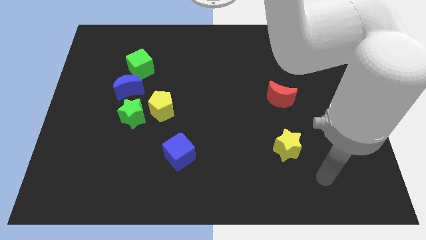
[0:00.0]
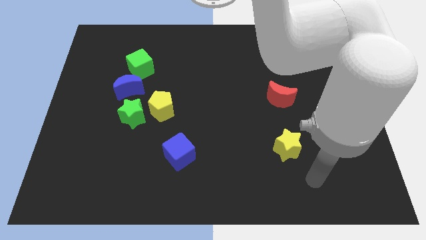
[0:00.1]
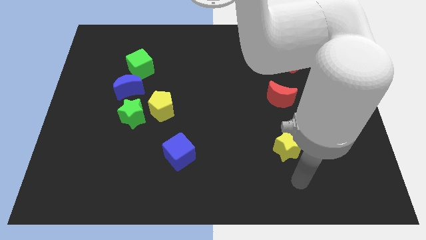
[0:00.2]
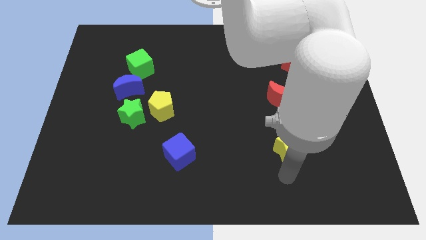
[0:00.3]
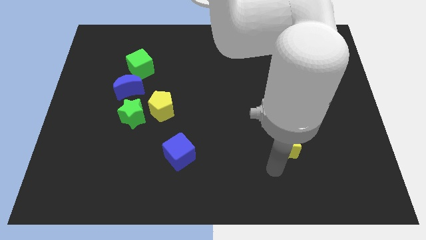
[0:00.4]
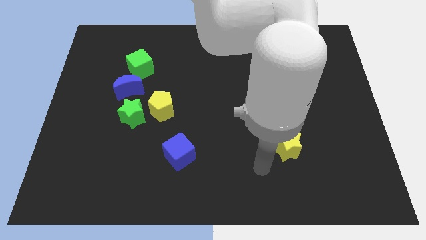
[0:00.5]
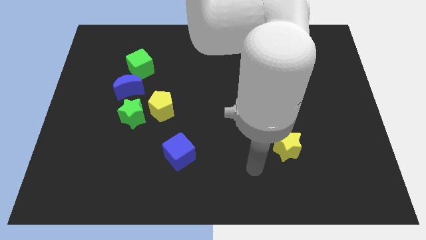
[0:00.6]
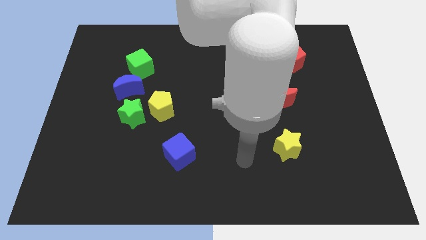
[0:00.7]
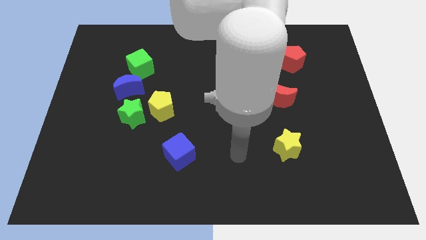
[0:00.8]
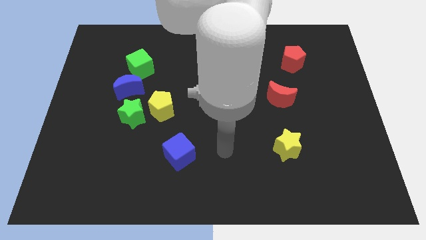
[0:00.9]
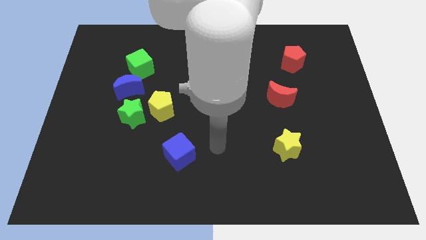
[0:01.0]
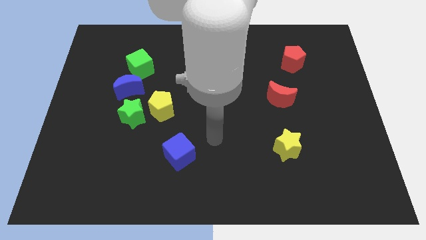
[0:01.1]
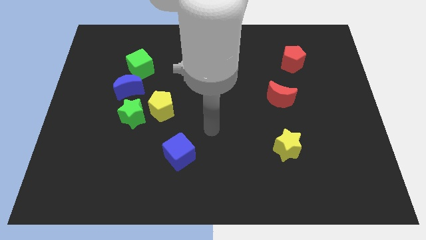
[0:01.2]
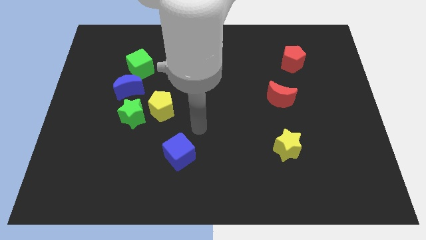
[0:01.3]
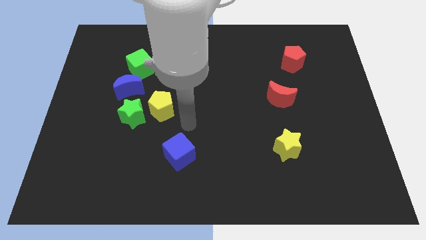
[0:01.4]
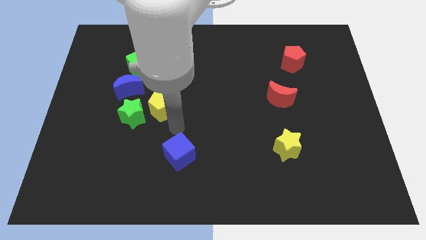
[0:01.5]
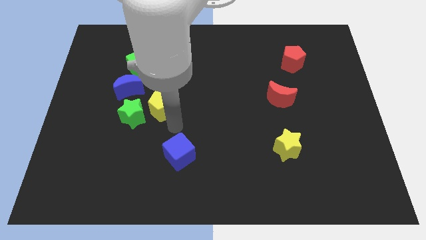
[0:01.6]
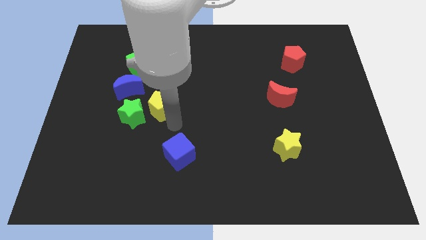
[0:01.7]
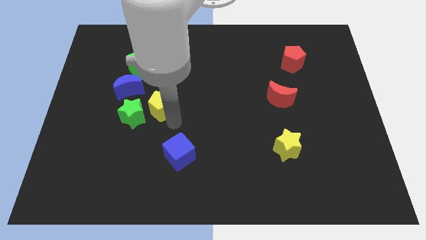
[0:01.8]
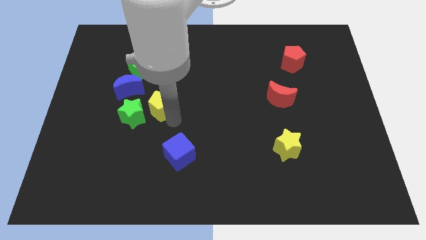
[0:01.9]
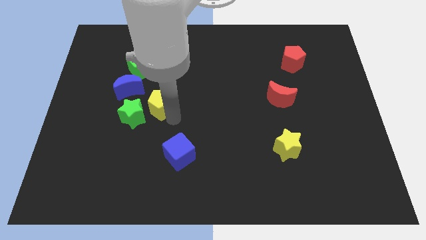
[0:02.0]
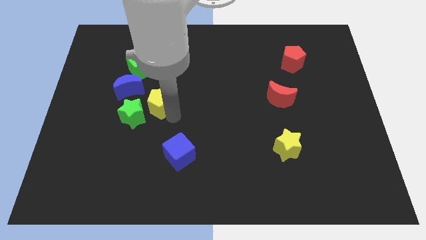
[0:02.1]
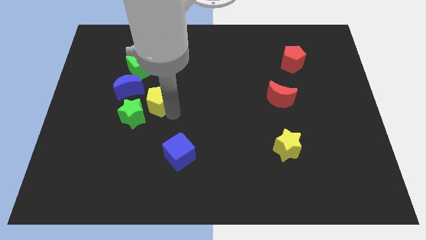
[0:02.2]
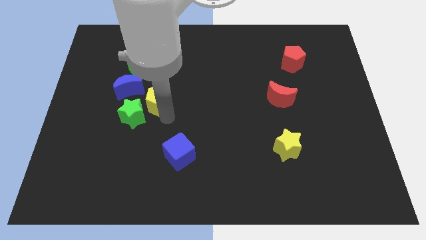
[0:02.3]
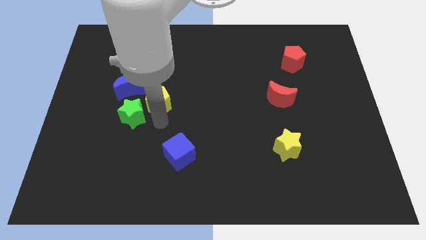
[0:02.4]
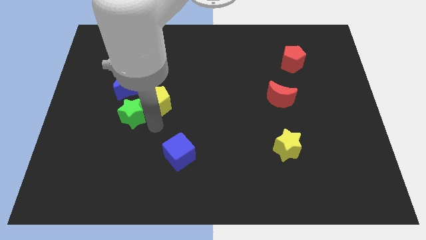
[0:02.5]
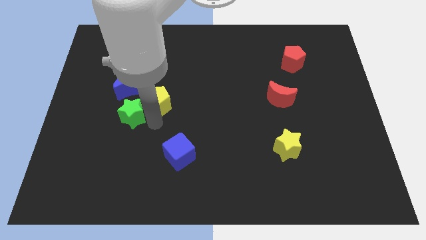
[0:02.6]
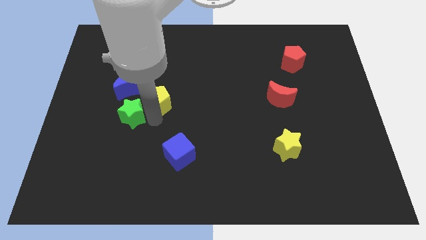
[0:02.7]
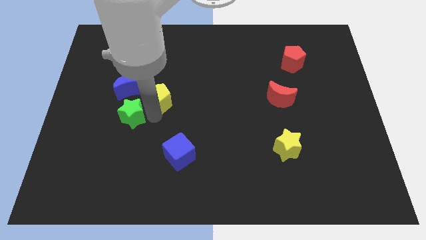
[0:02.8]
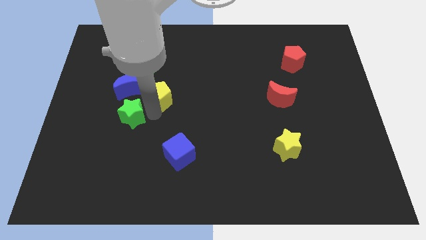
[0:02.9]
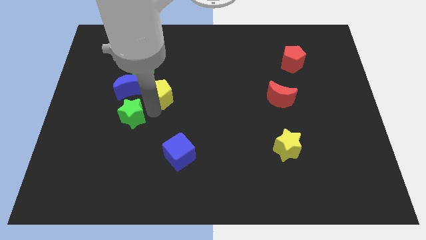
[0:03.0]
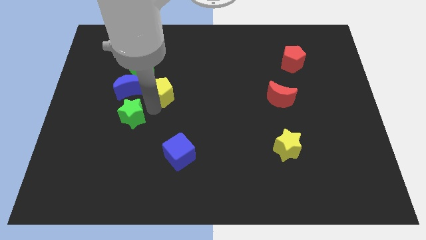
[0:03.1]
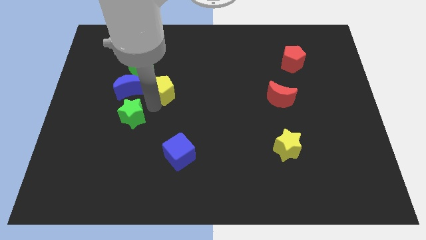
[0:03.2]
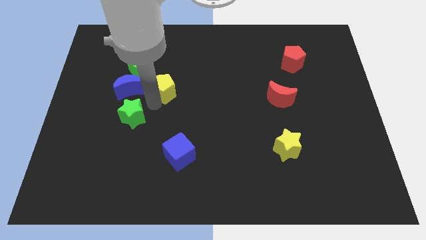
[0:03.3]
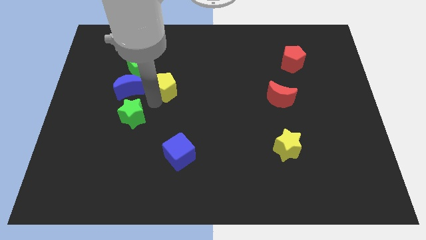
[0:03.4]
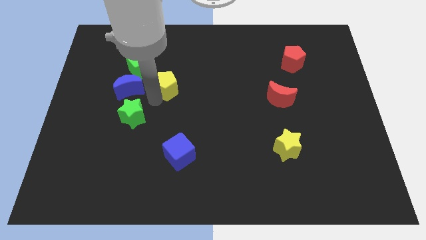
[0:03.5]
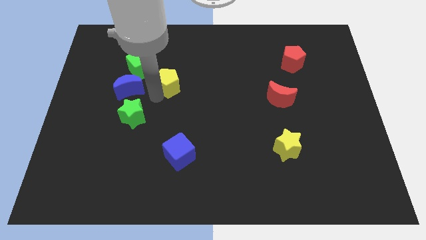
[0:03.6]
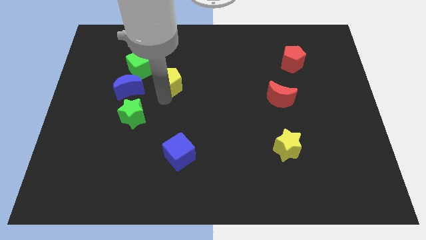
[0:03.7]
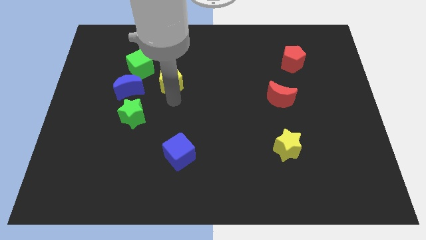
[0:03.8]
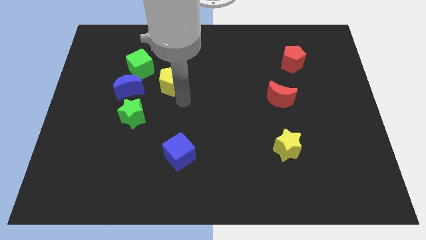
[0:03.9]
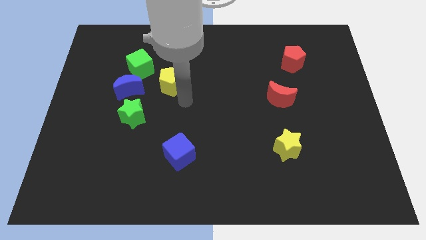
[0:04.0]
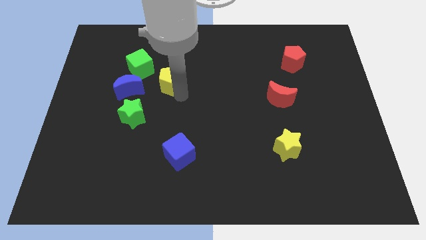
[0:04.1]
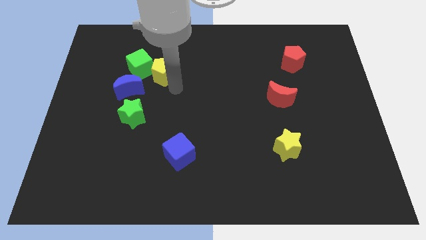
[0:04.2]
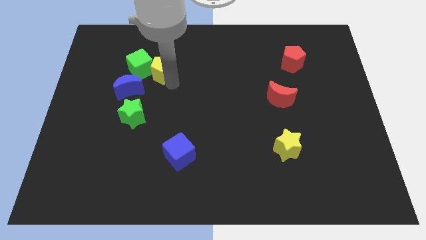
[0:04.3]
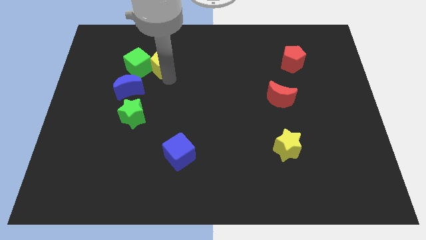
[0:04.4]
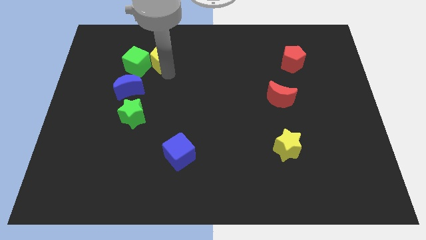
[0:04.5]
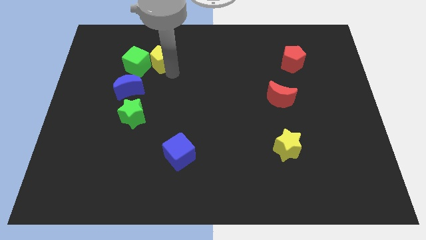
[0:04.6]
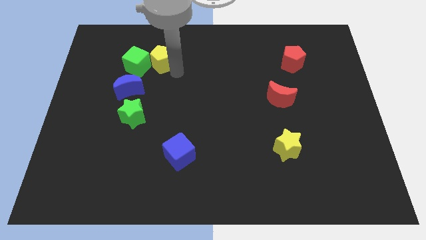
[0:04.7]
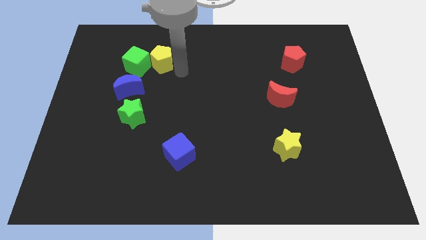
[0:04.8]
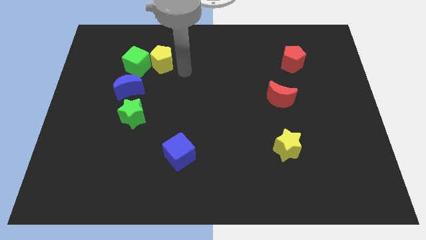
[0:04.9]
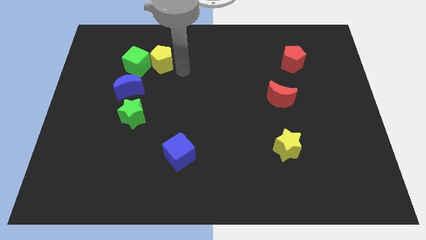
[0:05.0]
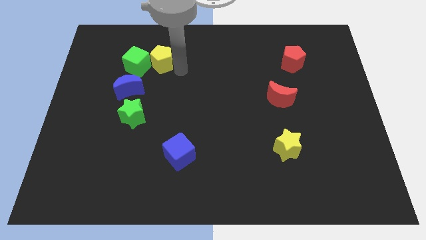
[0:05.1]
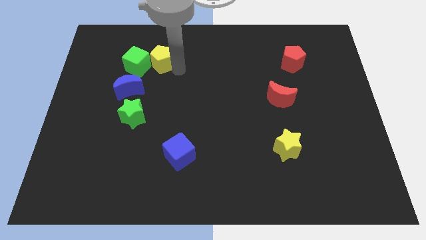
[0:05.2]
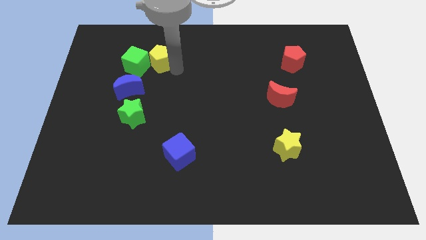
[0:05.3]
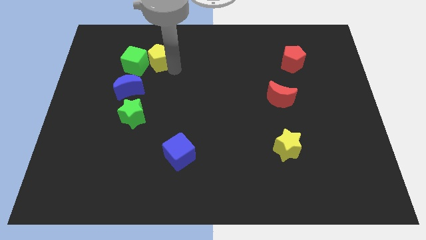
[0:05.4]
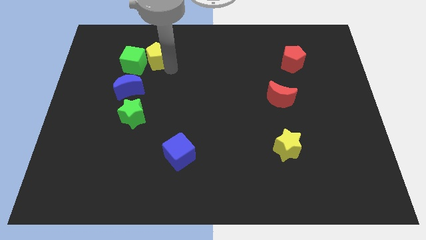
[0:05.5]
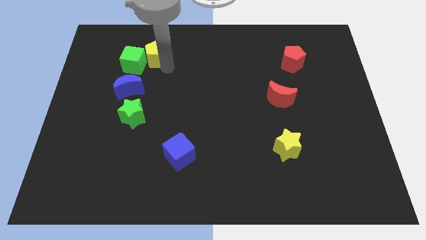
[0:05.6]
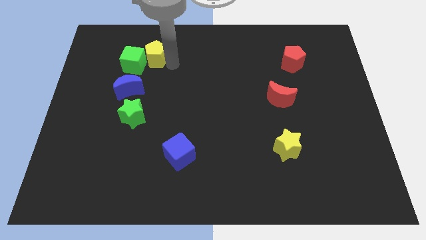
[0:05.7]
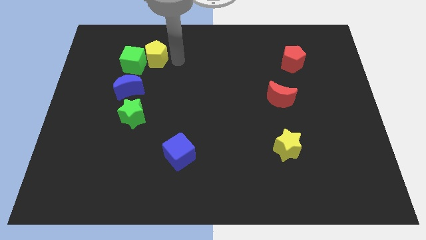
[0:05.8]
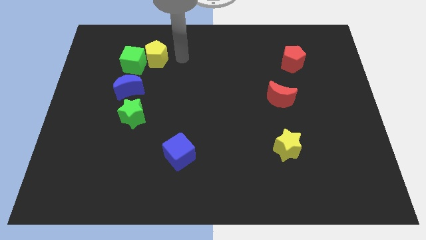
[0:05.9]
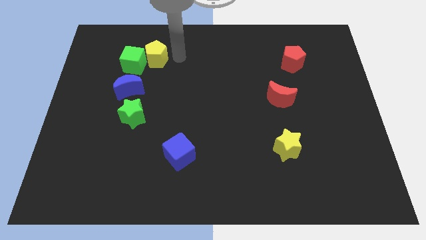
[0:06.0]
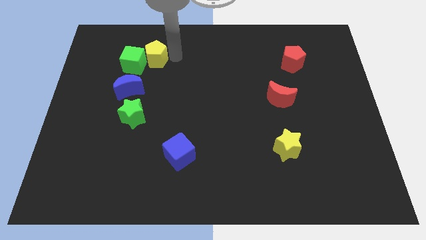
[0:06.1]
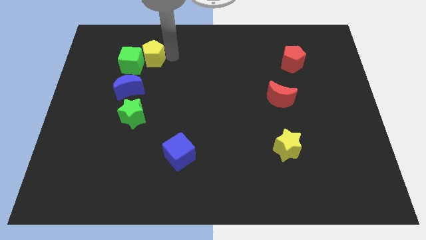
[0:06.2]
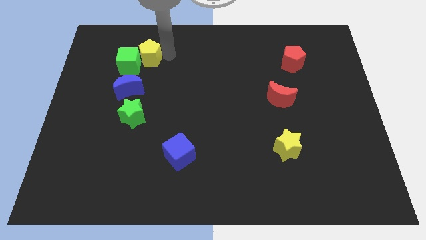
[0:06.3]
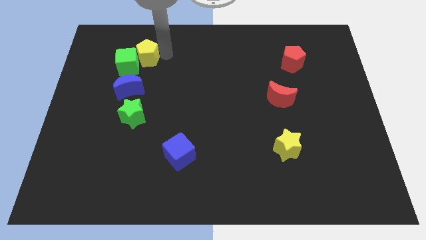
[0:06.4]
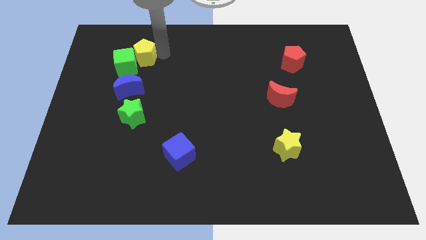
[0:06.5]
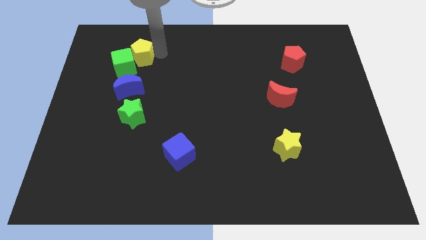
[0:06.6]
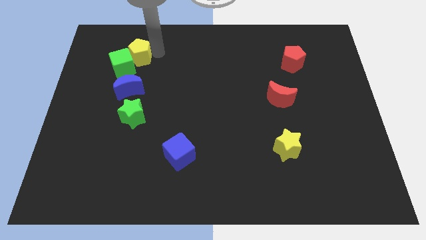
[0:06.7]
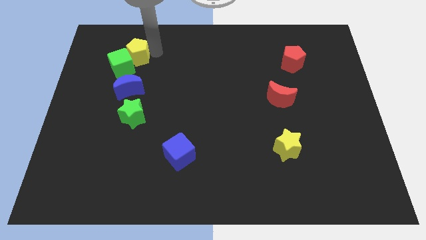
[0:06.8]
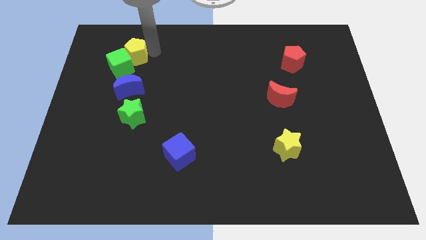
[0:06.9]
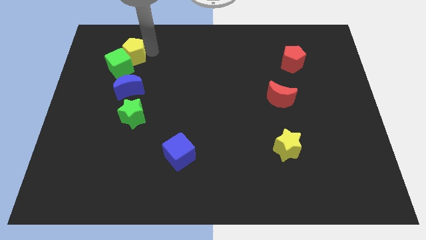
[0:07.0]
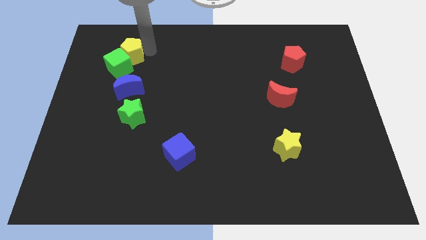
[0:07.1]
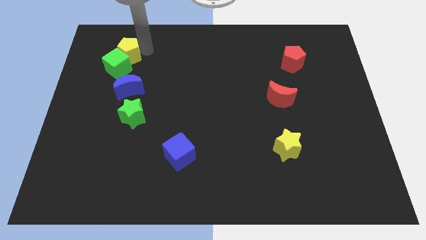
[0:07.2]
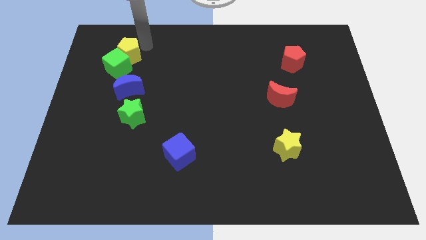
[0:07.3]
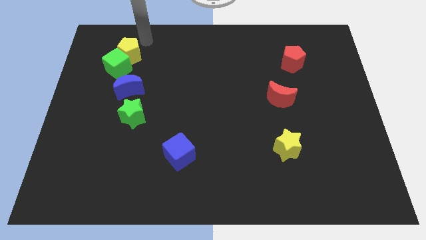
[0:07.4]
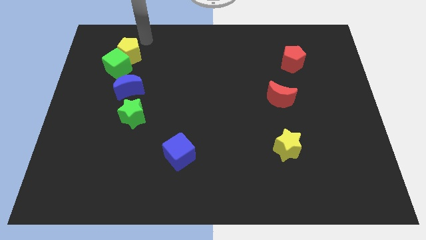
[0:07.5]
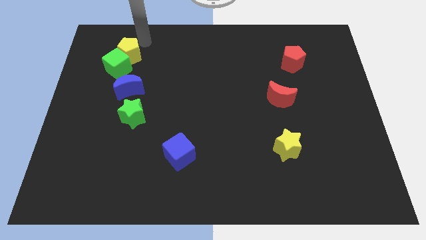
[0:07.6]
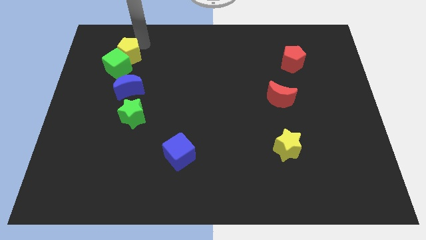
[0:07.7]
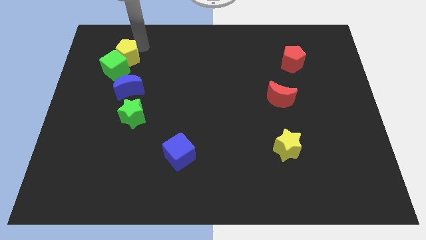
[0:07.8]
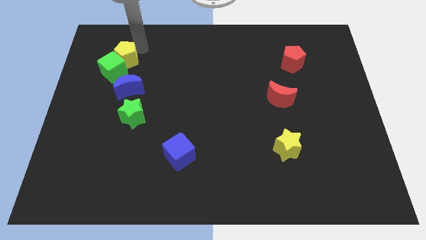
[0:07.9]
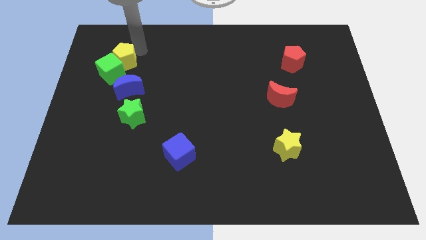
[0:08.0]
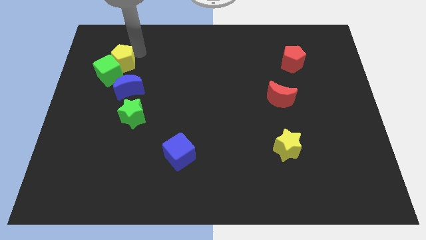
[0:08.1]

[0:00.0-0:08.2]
slide the yellow pentagon to the top left side of the blue moon
